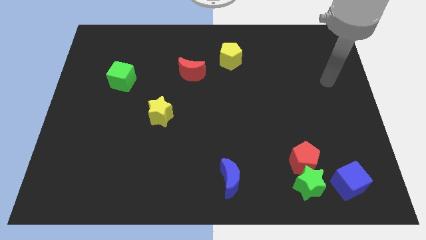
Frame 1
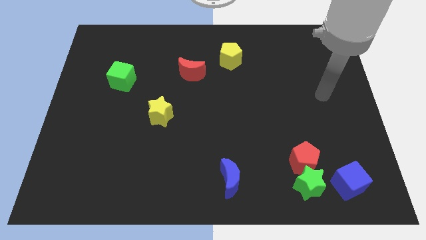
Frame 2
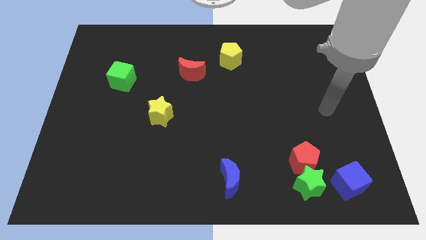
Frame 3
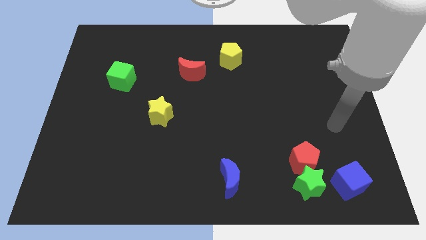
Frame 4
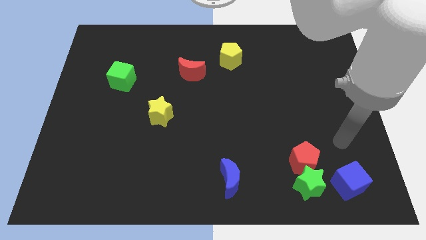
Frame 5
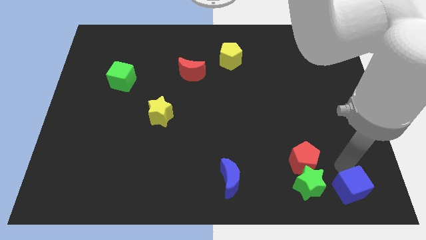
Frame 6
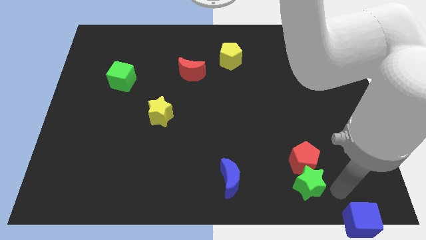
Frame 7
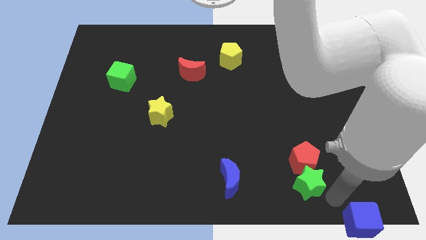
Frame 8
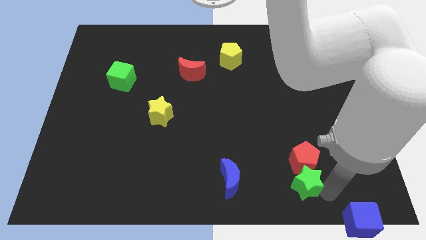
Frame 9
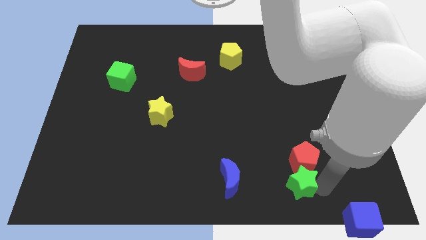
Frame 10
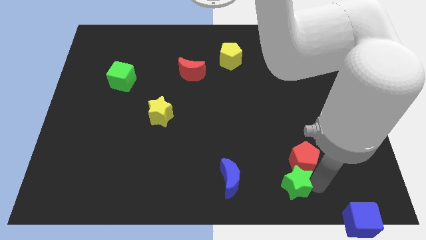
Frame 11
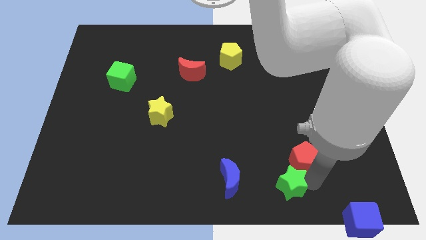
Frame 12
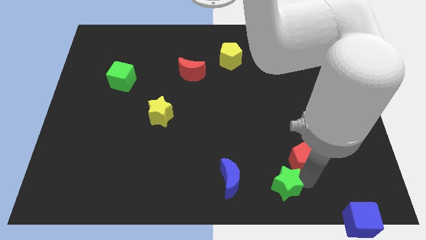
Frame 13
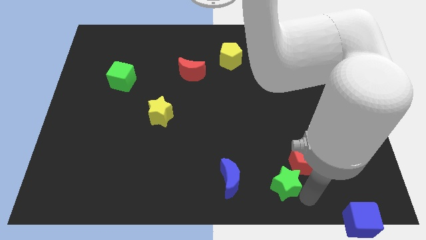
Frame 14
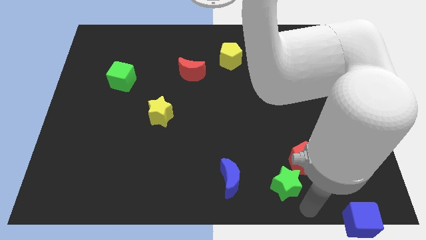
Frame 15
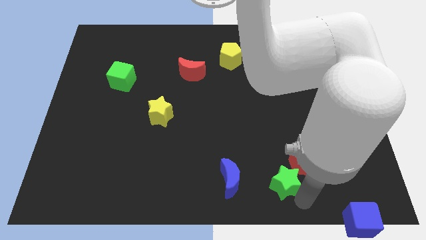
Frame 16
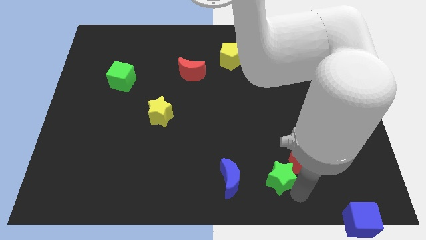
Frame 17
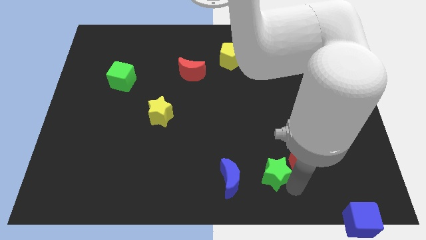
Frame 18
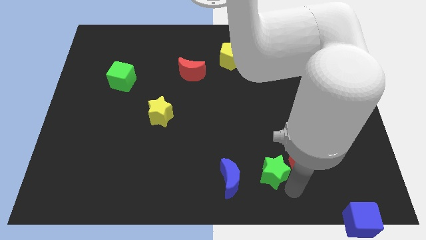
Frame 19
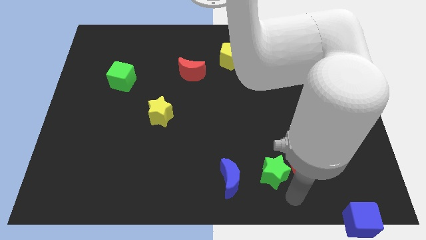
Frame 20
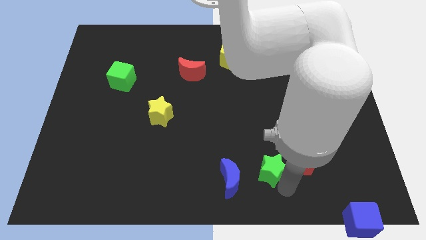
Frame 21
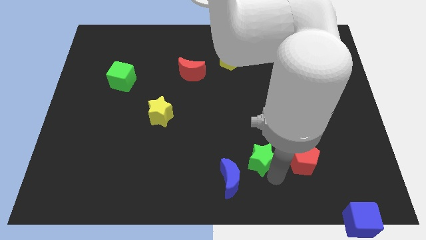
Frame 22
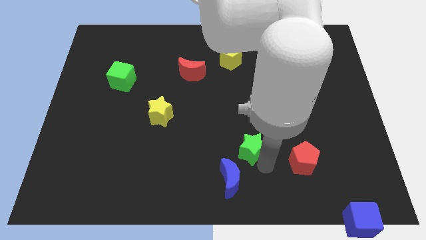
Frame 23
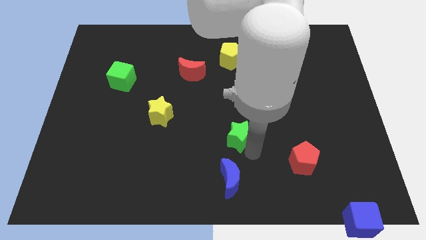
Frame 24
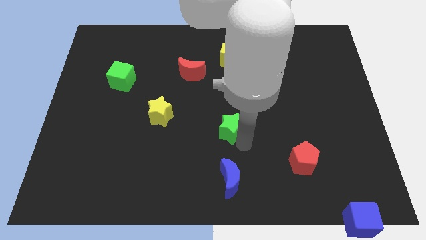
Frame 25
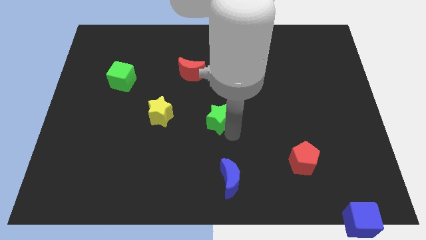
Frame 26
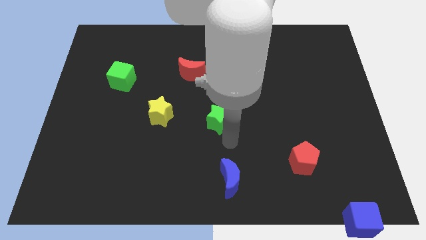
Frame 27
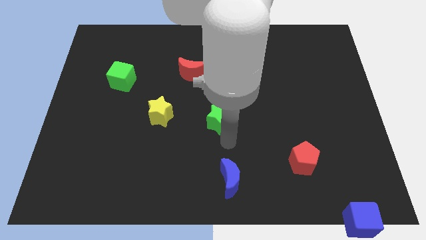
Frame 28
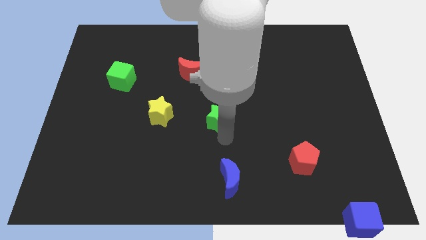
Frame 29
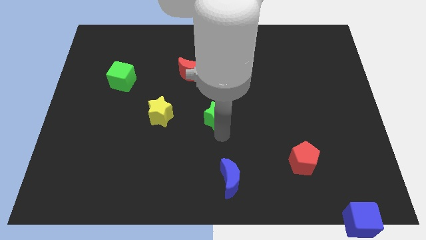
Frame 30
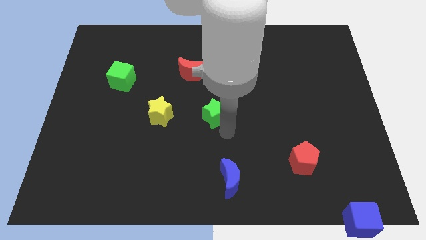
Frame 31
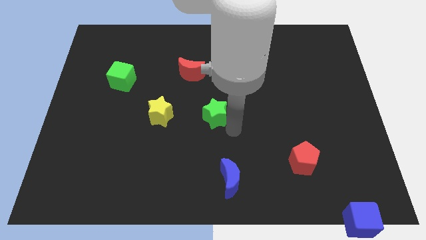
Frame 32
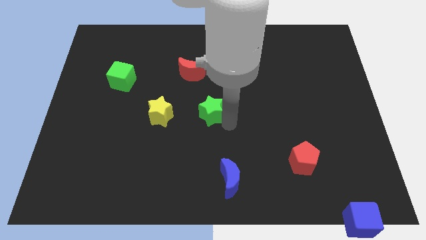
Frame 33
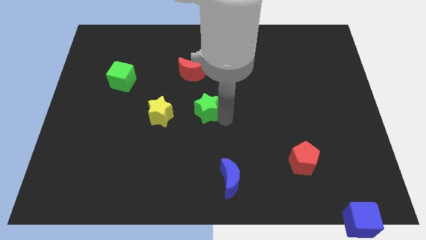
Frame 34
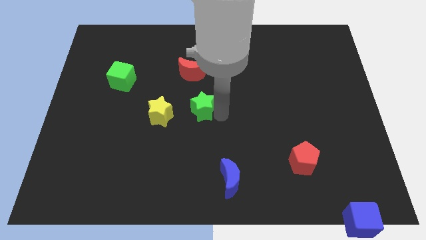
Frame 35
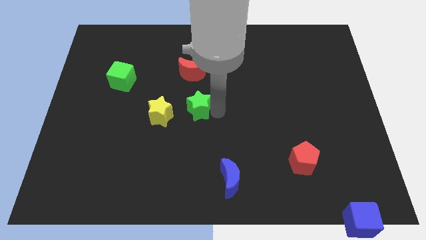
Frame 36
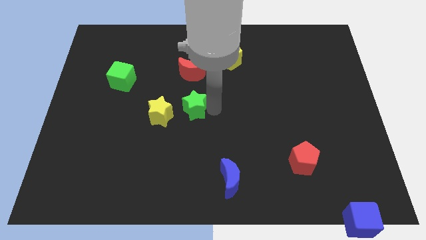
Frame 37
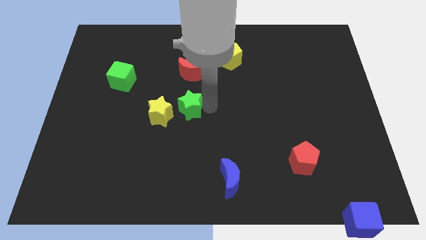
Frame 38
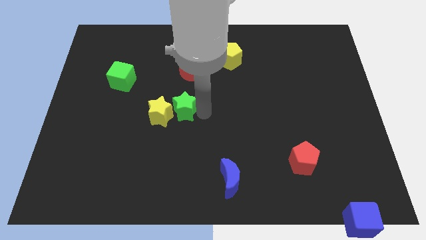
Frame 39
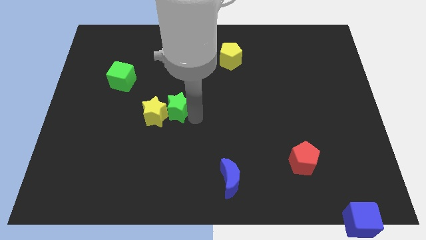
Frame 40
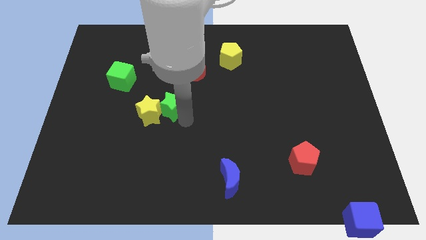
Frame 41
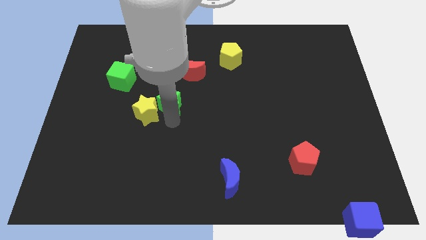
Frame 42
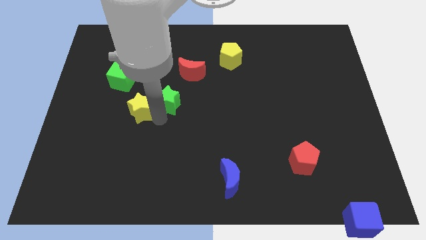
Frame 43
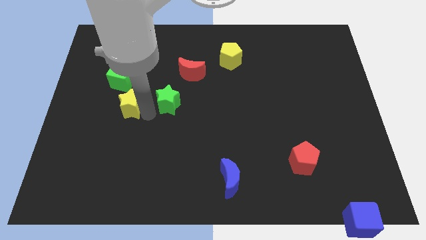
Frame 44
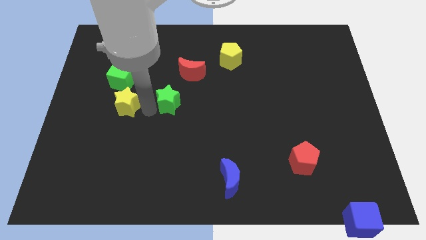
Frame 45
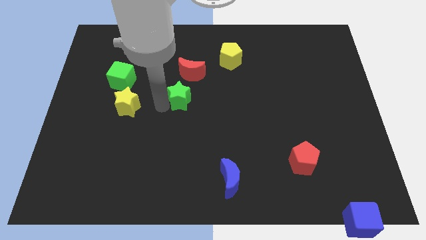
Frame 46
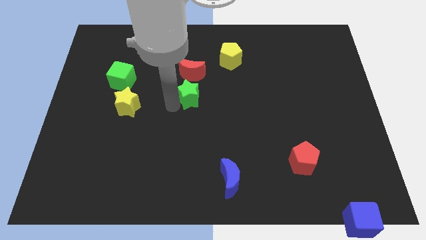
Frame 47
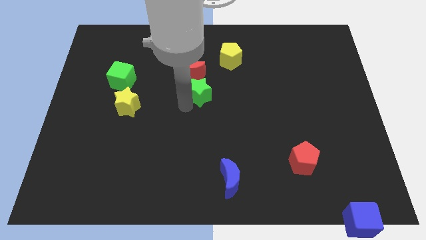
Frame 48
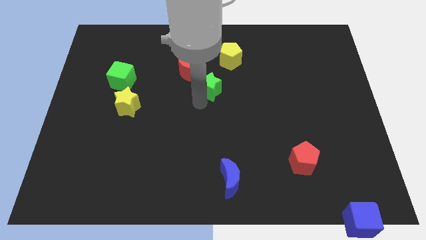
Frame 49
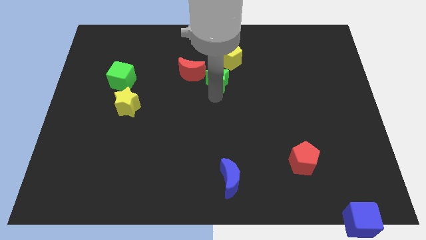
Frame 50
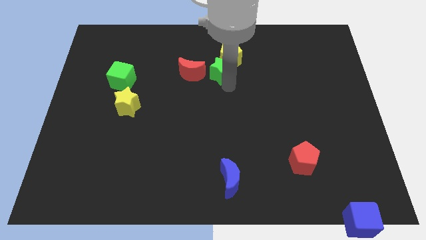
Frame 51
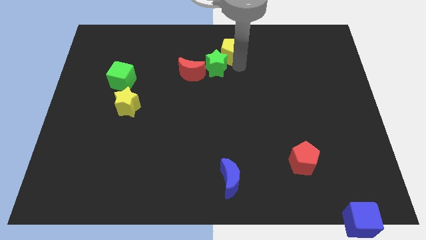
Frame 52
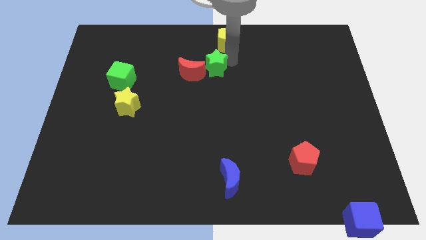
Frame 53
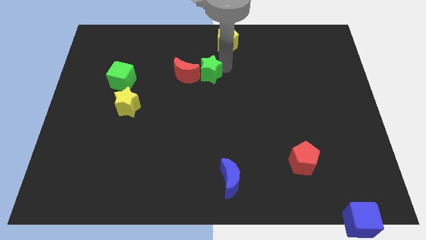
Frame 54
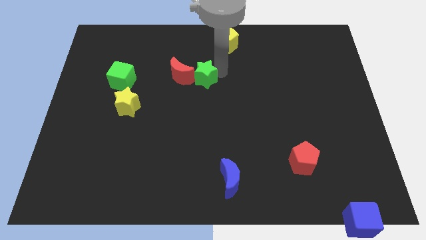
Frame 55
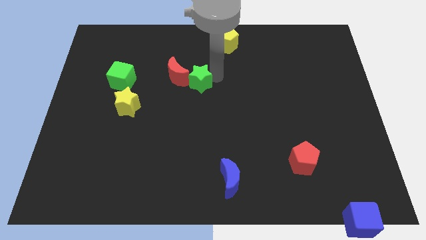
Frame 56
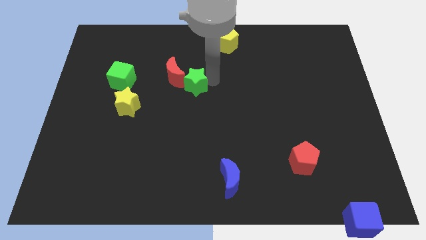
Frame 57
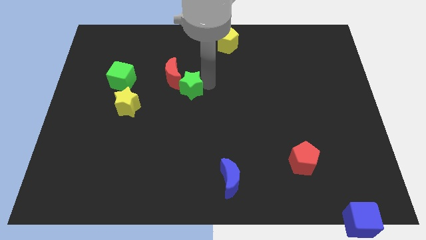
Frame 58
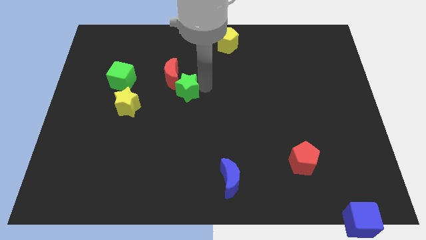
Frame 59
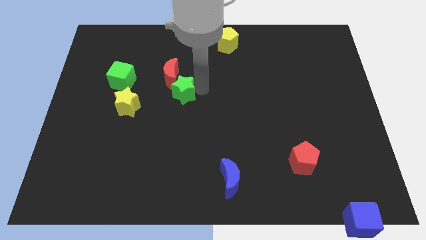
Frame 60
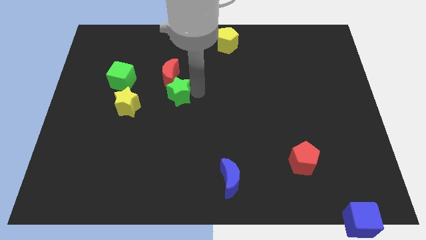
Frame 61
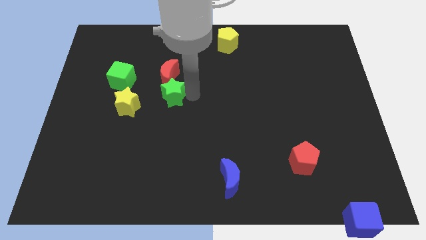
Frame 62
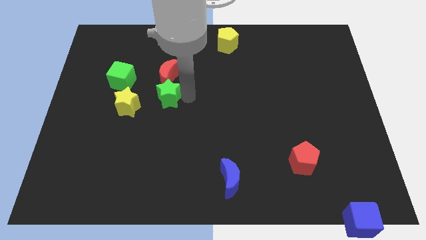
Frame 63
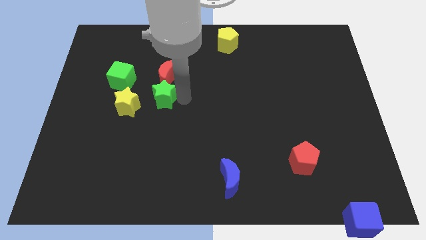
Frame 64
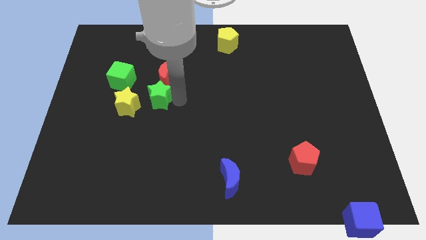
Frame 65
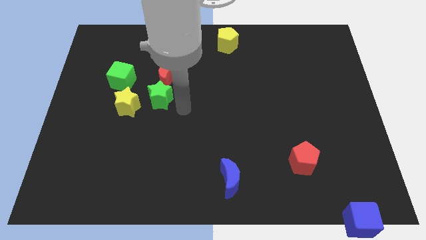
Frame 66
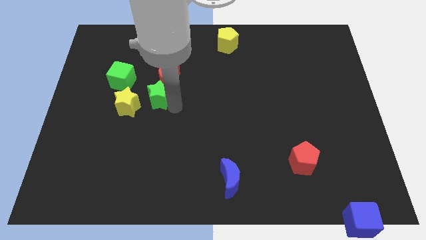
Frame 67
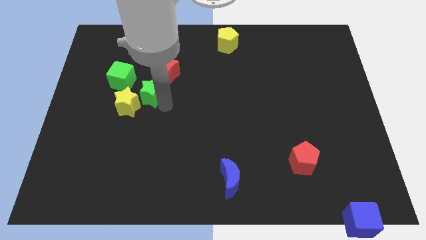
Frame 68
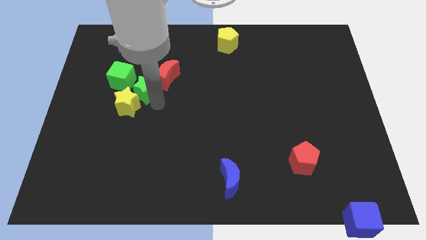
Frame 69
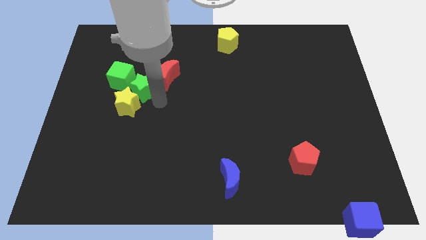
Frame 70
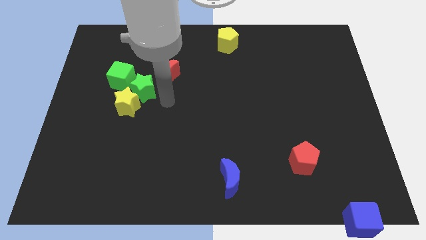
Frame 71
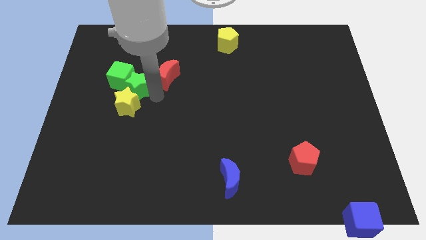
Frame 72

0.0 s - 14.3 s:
put the green star to the green cube
